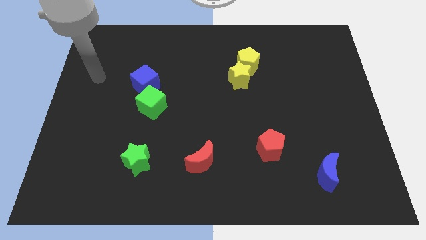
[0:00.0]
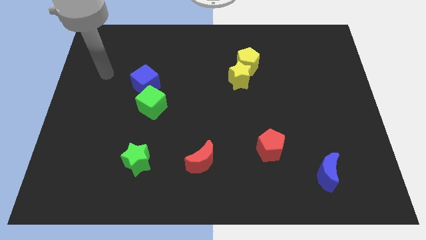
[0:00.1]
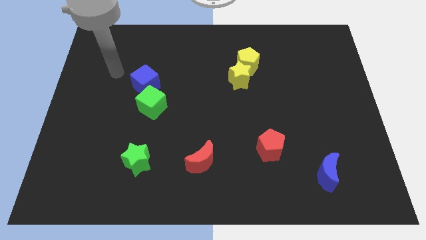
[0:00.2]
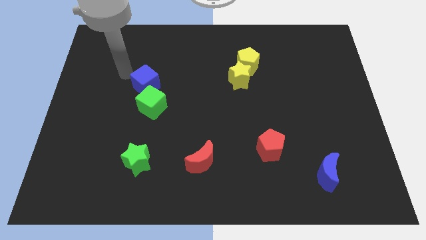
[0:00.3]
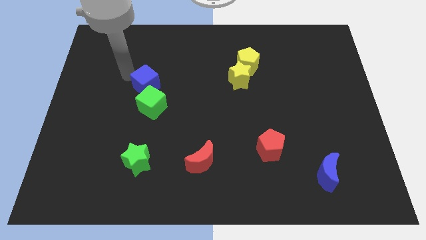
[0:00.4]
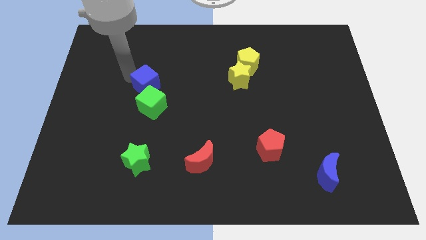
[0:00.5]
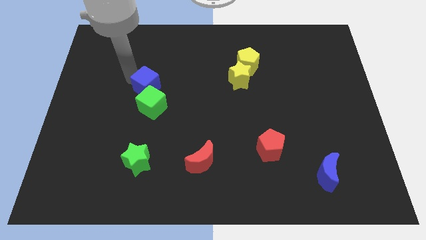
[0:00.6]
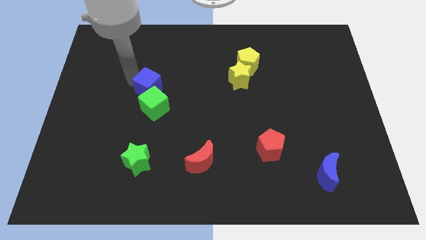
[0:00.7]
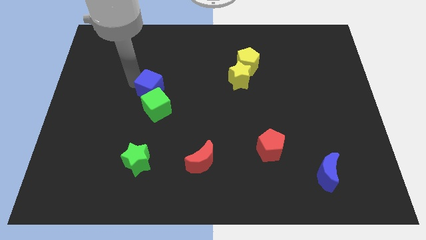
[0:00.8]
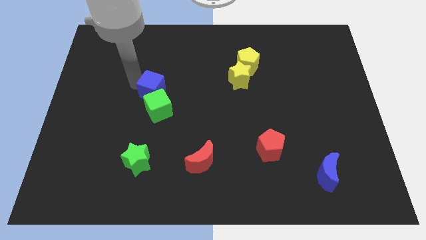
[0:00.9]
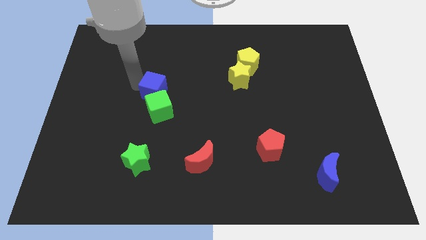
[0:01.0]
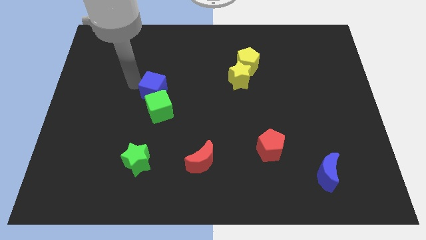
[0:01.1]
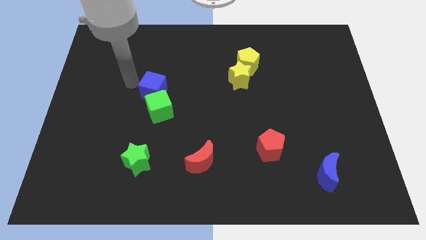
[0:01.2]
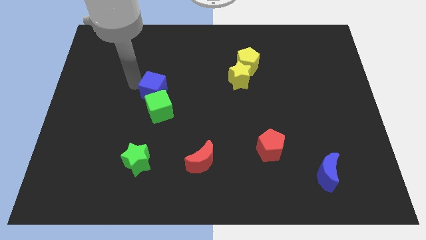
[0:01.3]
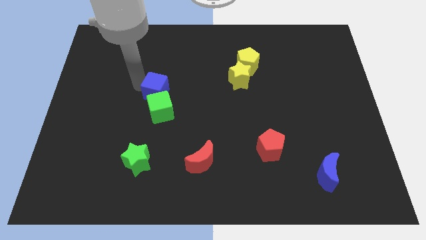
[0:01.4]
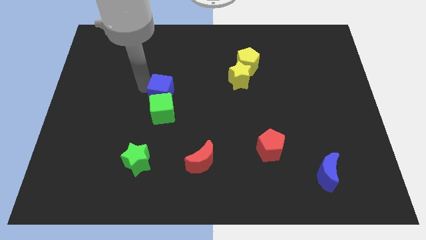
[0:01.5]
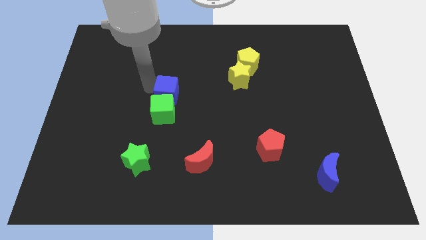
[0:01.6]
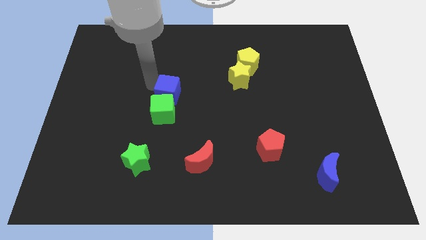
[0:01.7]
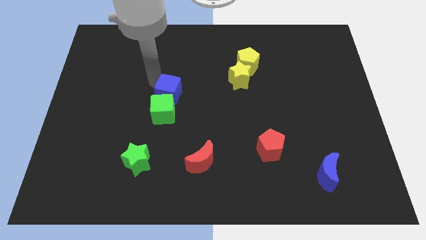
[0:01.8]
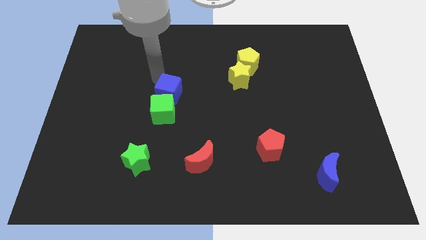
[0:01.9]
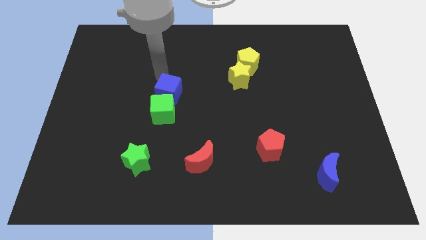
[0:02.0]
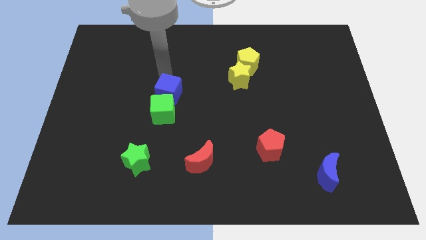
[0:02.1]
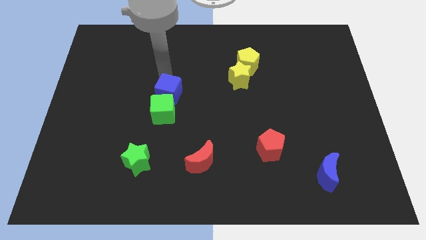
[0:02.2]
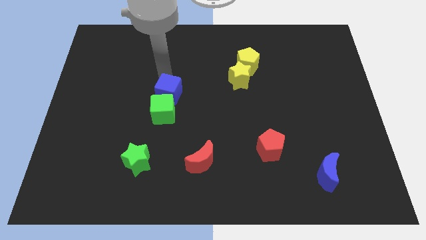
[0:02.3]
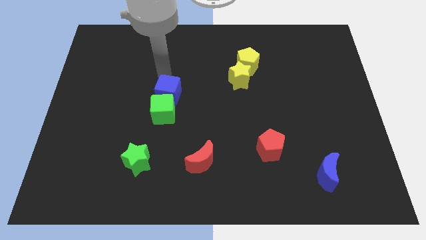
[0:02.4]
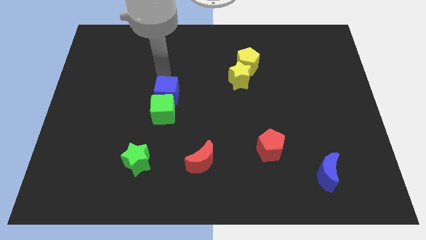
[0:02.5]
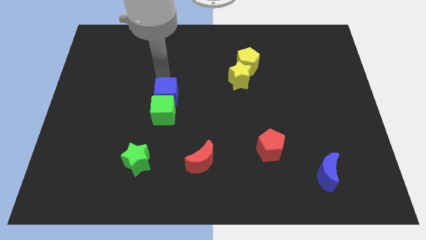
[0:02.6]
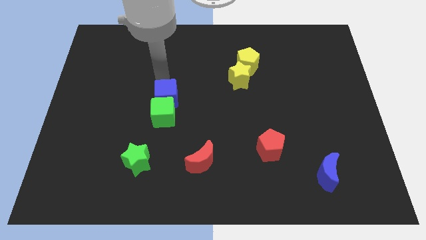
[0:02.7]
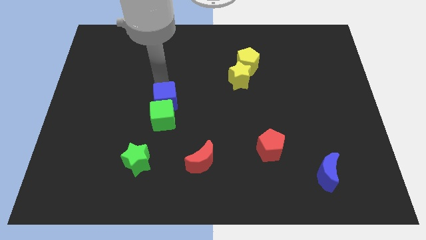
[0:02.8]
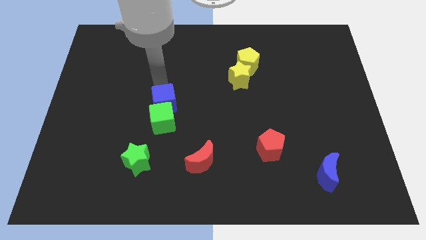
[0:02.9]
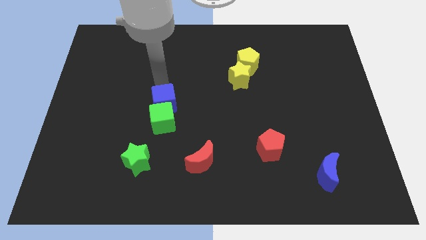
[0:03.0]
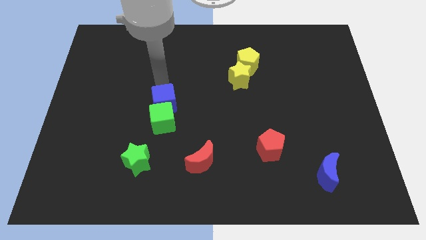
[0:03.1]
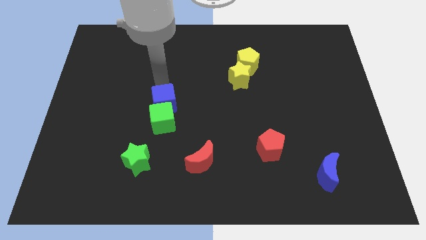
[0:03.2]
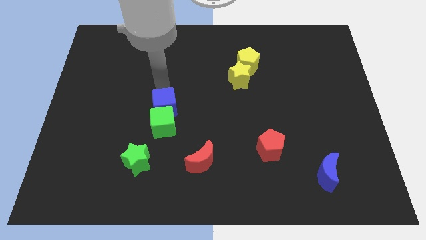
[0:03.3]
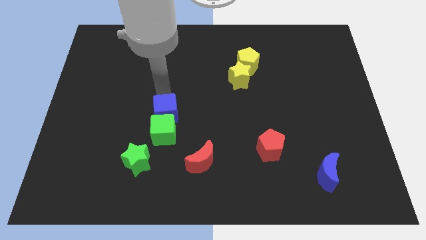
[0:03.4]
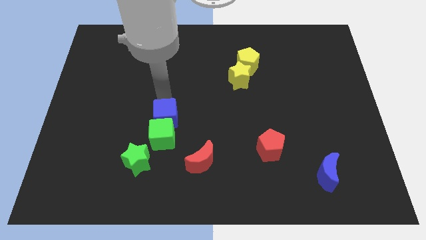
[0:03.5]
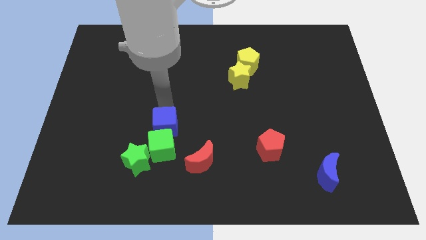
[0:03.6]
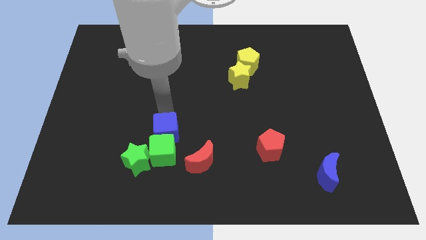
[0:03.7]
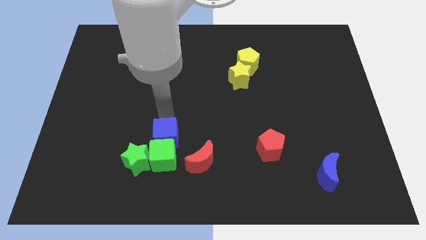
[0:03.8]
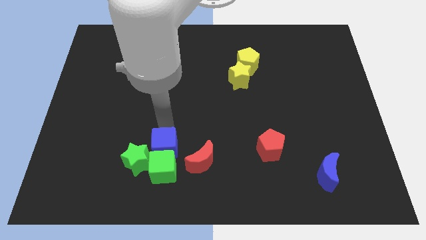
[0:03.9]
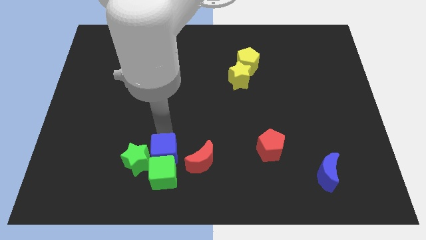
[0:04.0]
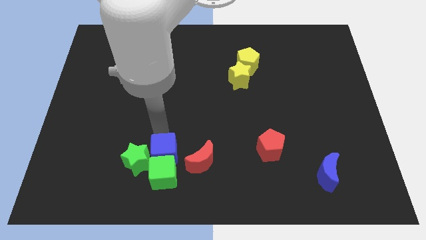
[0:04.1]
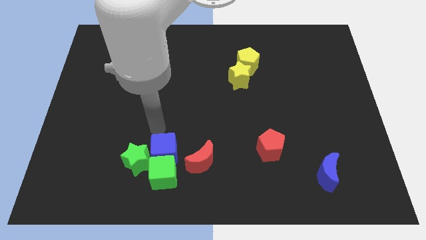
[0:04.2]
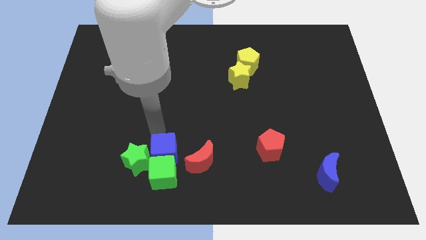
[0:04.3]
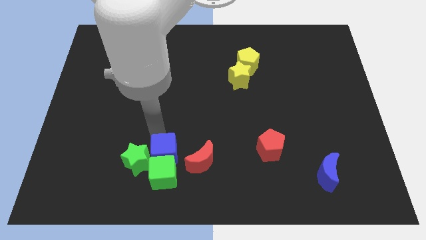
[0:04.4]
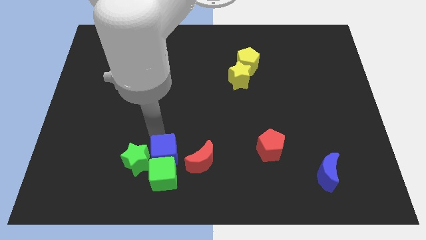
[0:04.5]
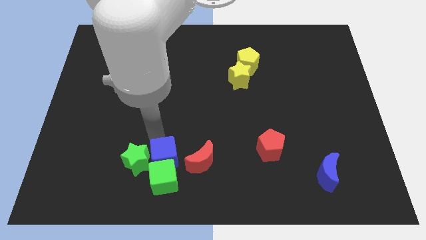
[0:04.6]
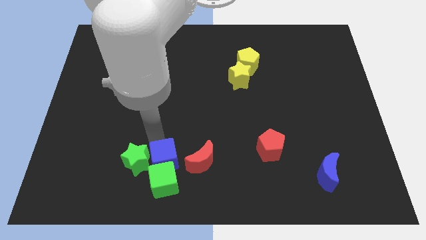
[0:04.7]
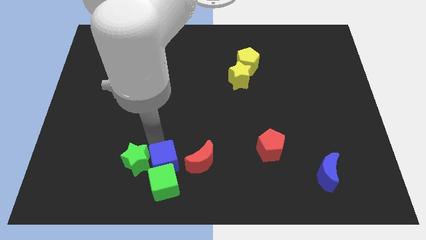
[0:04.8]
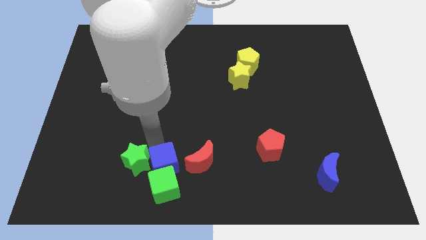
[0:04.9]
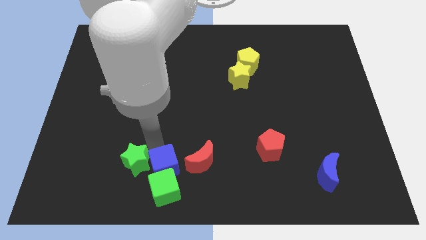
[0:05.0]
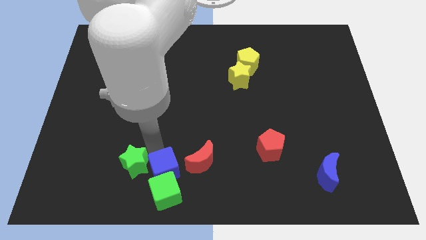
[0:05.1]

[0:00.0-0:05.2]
push the blue cube to the bottom side

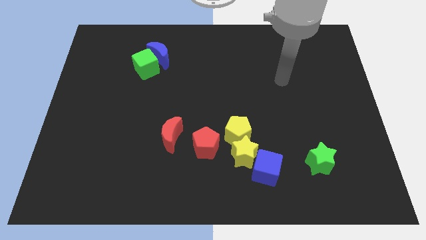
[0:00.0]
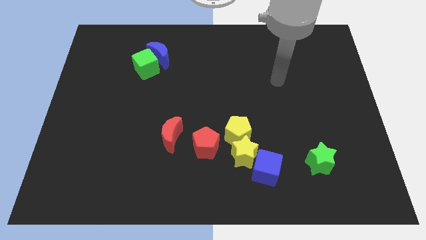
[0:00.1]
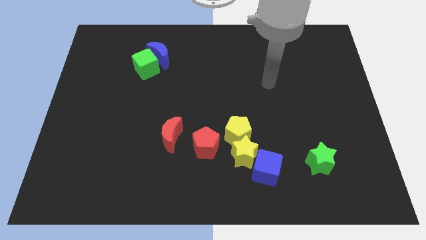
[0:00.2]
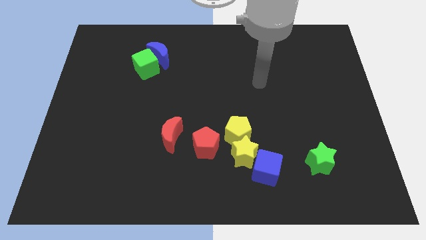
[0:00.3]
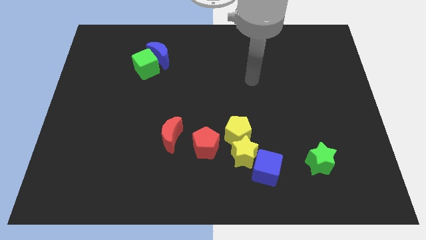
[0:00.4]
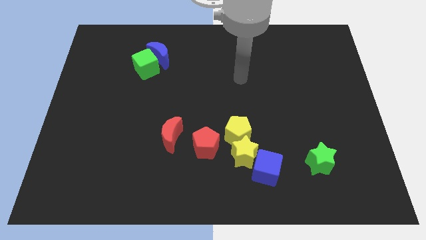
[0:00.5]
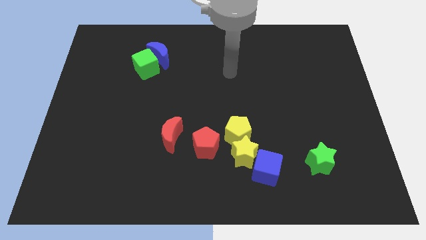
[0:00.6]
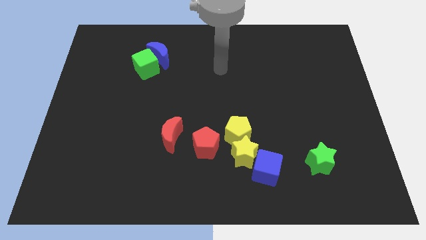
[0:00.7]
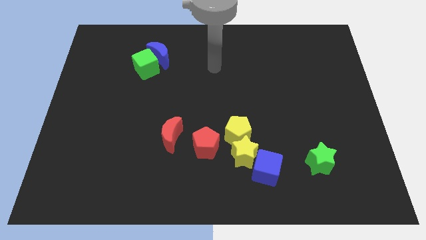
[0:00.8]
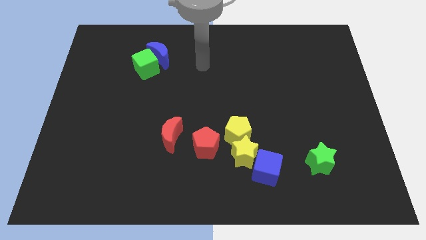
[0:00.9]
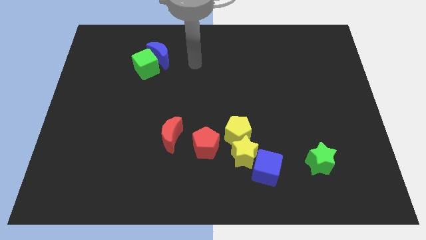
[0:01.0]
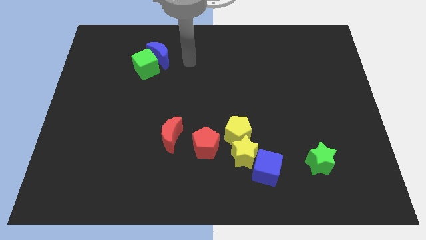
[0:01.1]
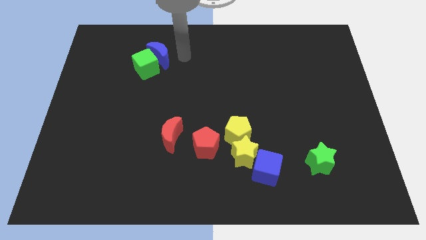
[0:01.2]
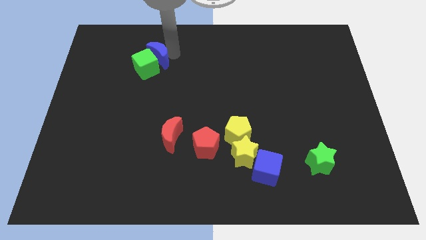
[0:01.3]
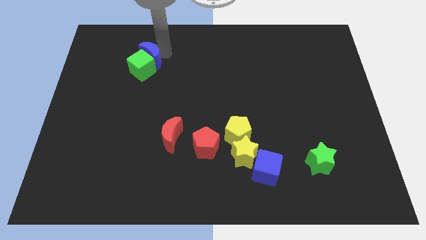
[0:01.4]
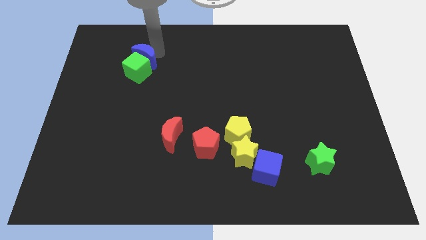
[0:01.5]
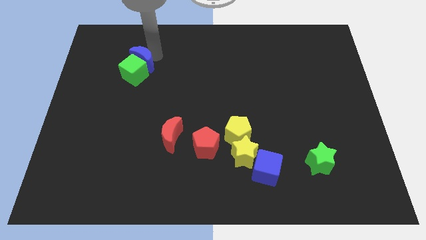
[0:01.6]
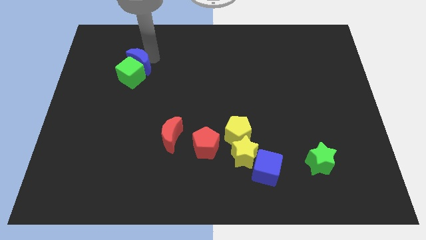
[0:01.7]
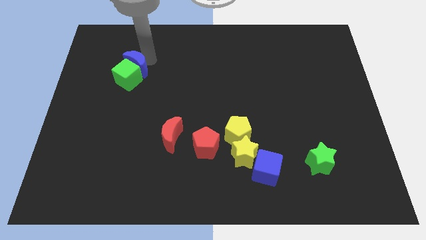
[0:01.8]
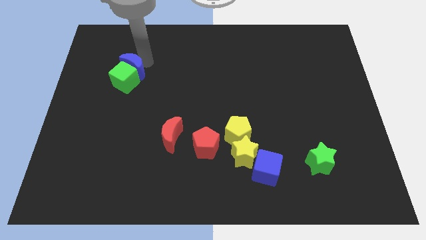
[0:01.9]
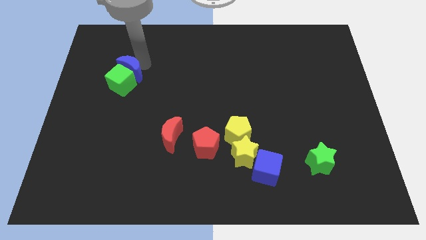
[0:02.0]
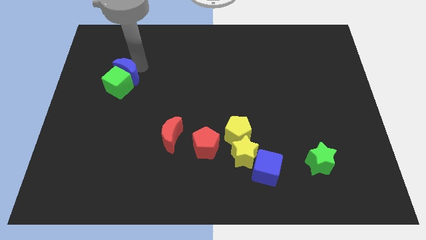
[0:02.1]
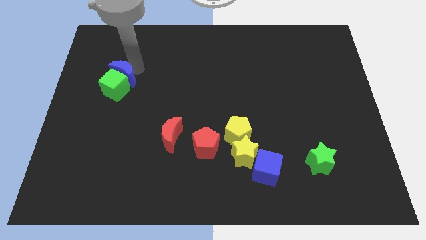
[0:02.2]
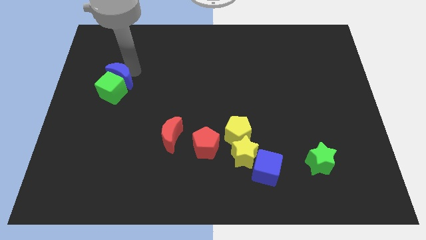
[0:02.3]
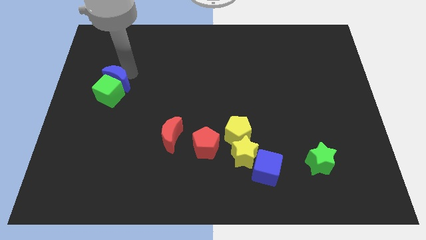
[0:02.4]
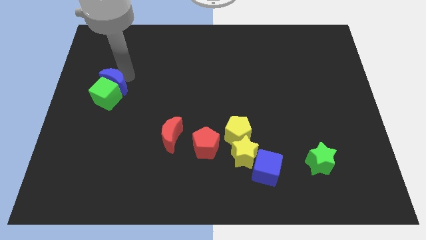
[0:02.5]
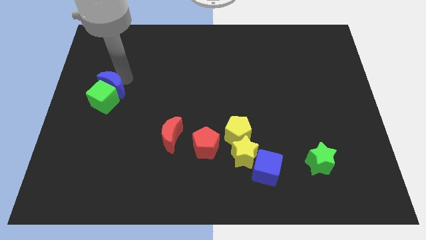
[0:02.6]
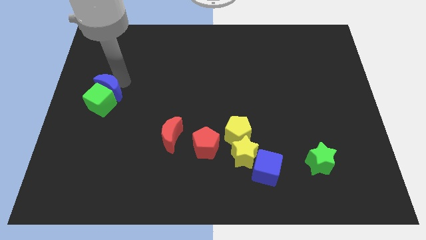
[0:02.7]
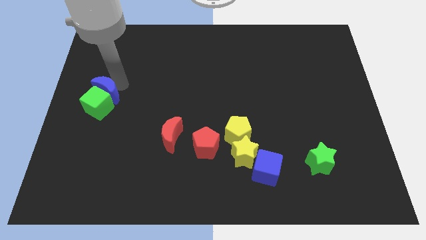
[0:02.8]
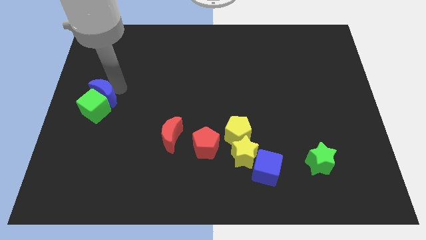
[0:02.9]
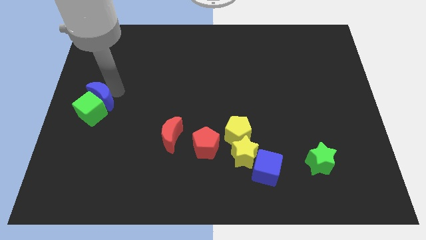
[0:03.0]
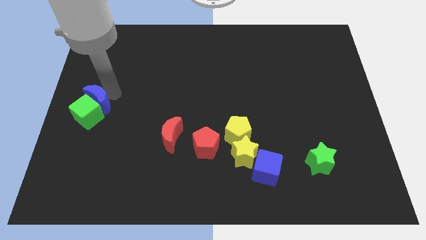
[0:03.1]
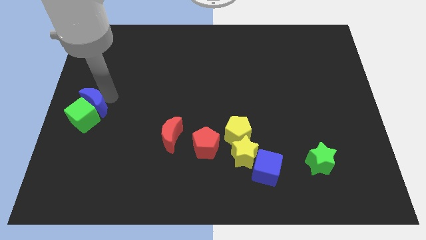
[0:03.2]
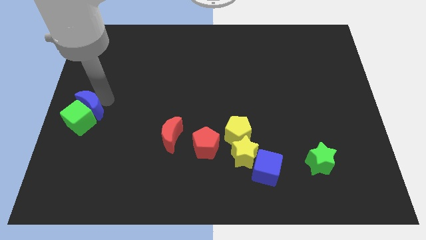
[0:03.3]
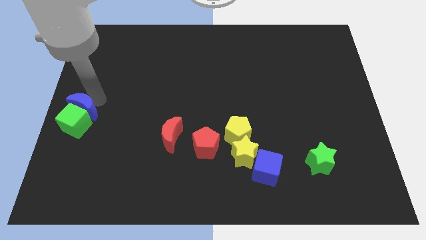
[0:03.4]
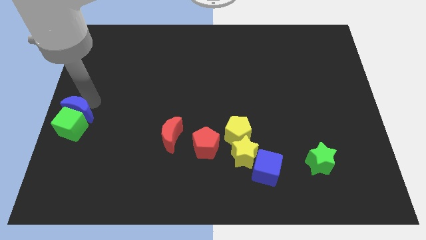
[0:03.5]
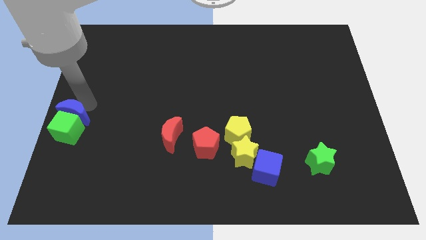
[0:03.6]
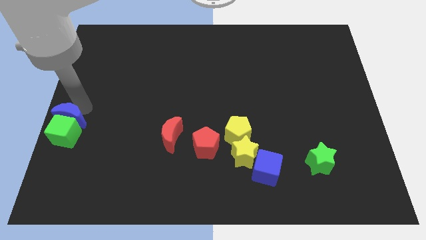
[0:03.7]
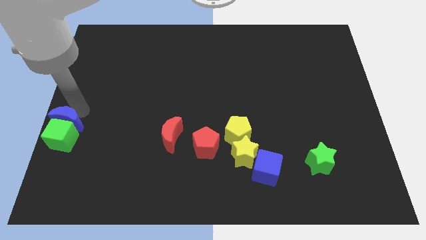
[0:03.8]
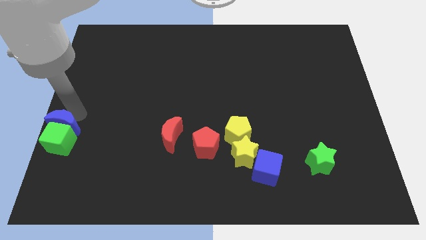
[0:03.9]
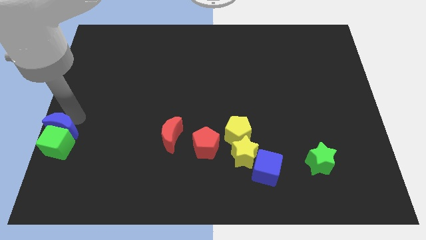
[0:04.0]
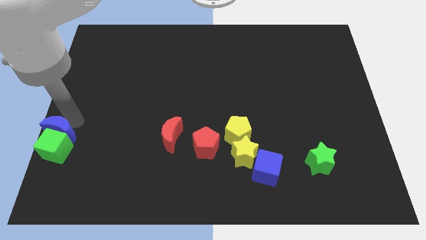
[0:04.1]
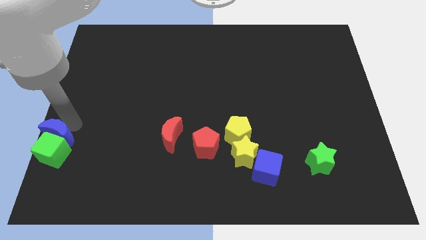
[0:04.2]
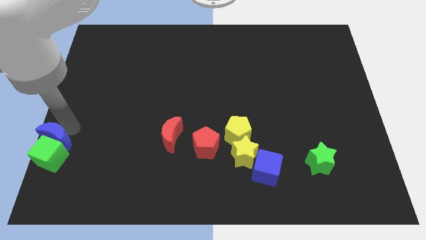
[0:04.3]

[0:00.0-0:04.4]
slide the green cube to the lower left corner
